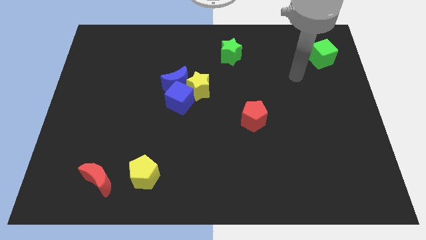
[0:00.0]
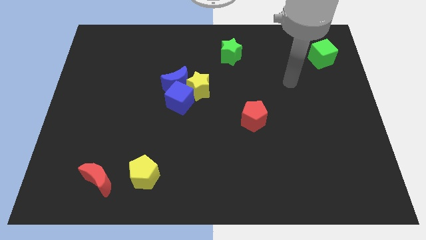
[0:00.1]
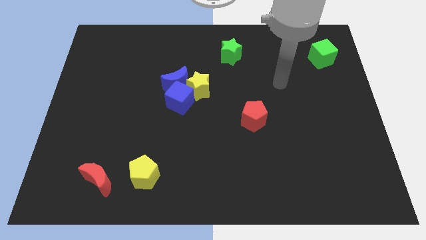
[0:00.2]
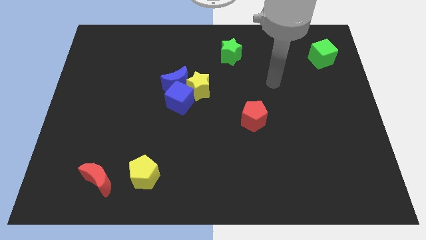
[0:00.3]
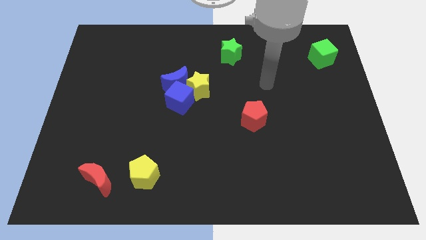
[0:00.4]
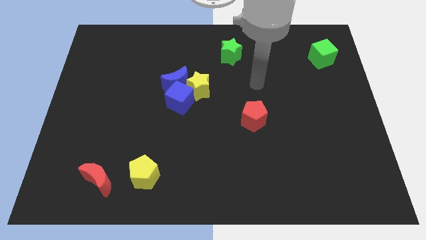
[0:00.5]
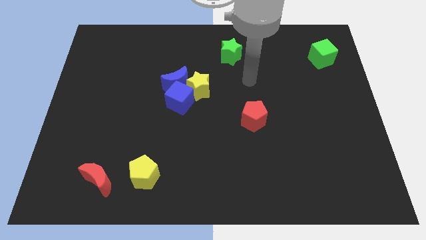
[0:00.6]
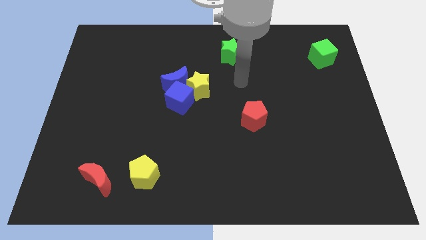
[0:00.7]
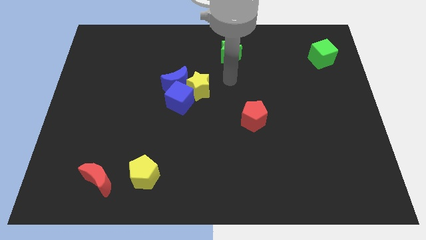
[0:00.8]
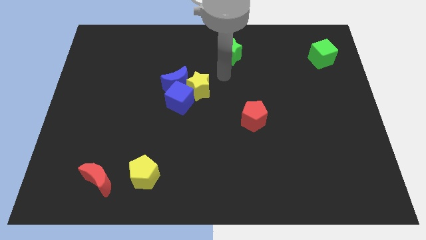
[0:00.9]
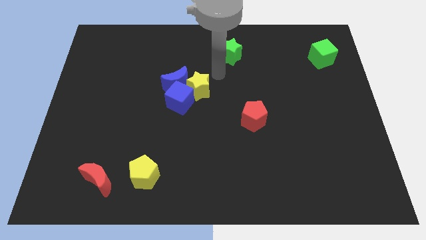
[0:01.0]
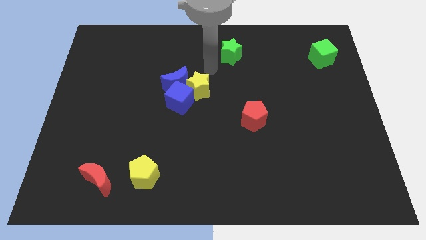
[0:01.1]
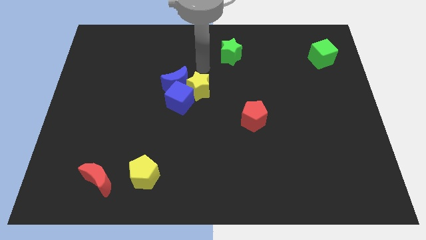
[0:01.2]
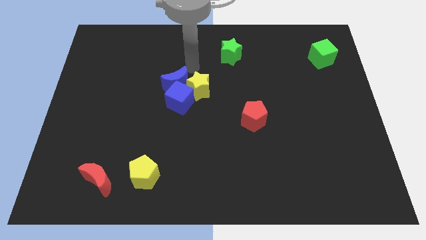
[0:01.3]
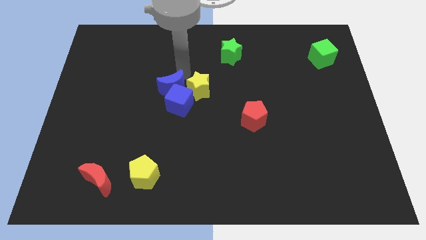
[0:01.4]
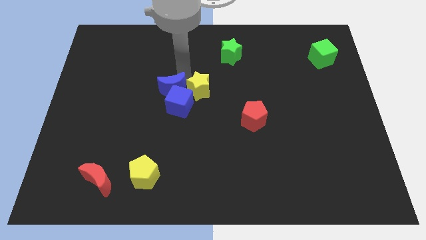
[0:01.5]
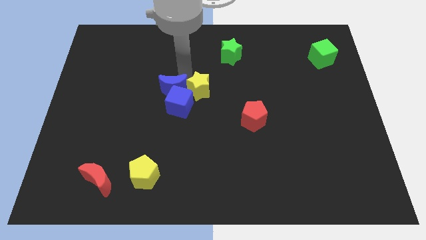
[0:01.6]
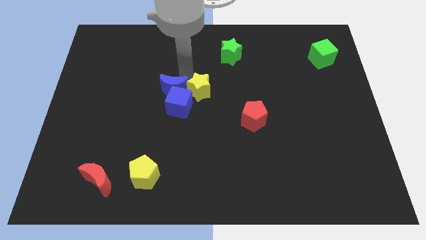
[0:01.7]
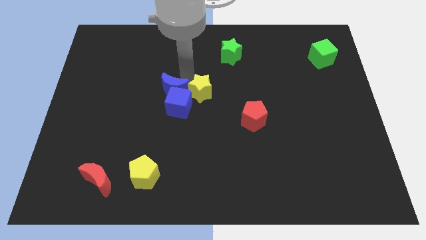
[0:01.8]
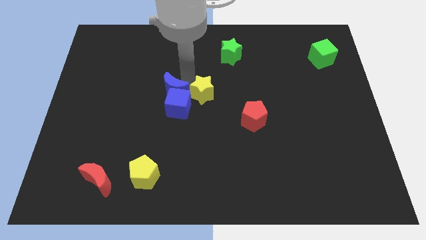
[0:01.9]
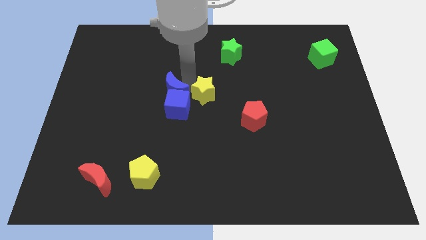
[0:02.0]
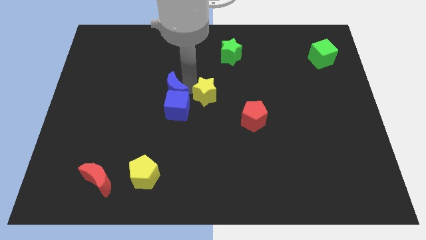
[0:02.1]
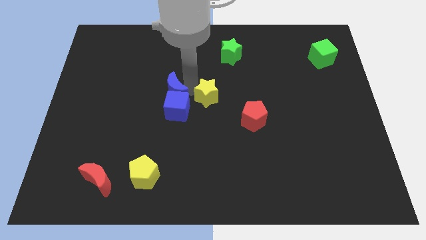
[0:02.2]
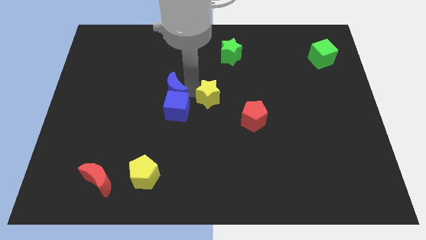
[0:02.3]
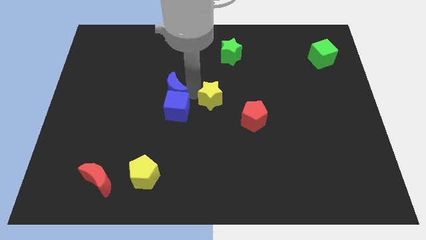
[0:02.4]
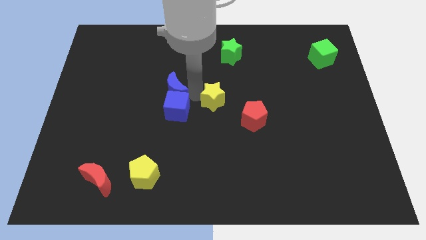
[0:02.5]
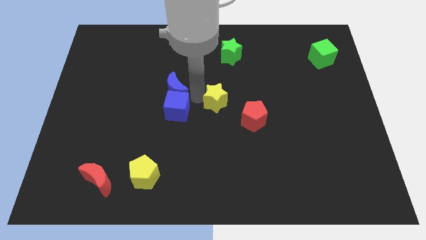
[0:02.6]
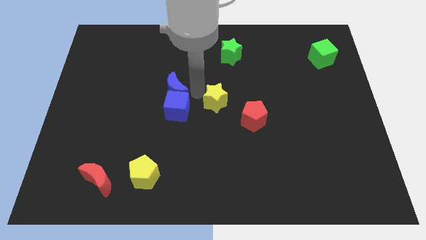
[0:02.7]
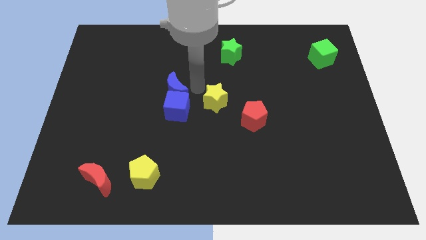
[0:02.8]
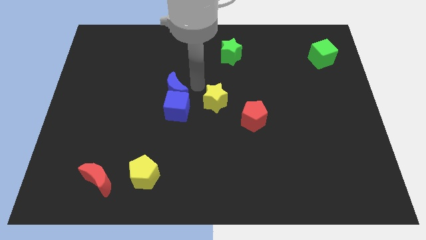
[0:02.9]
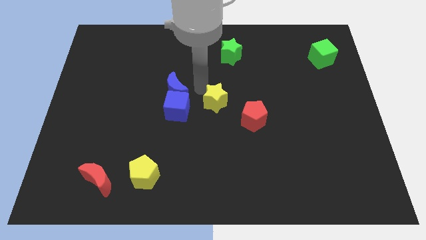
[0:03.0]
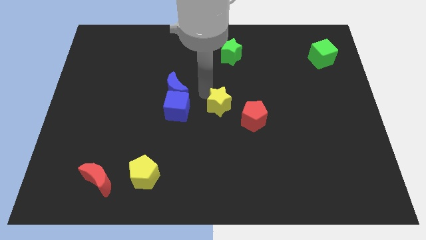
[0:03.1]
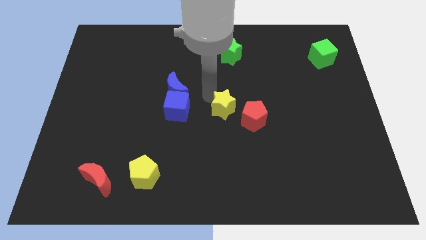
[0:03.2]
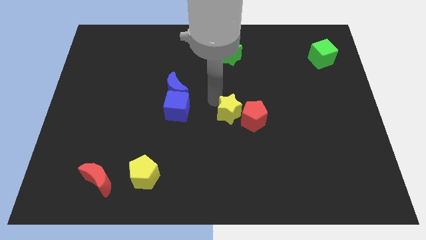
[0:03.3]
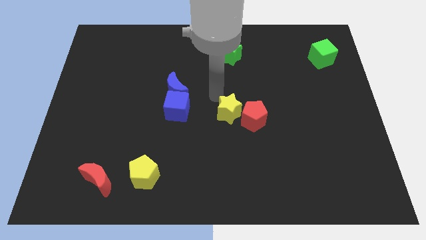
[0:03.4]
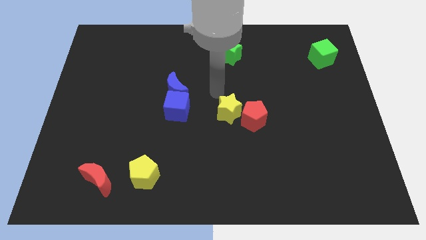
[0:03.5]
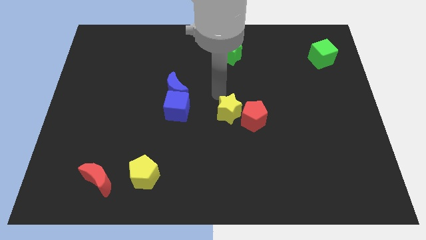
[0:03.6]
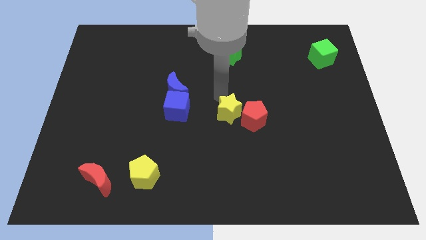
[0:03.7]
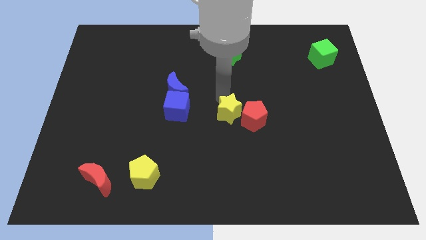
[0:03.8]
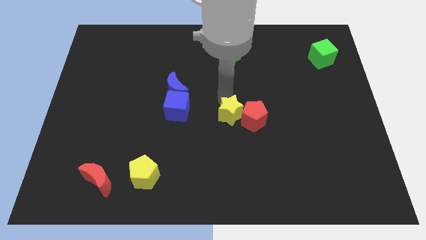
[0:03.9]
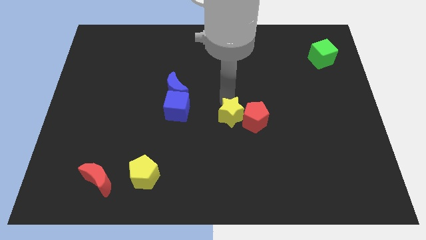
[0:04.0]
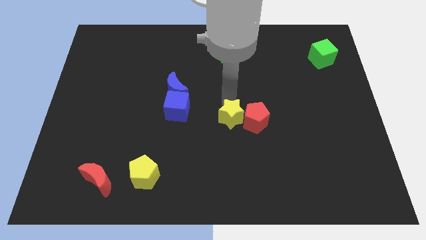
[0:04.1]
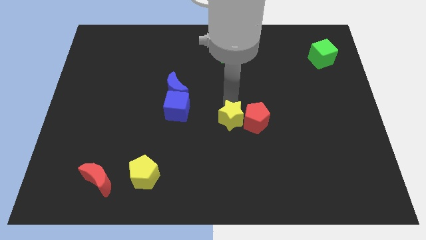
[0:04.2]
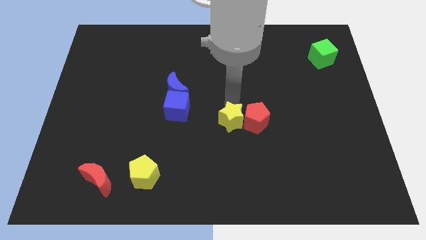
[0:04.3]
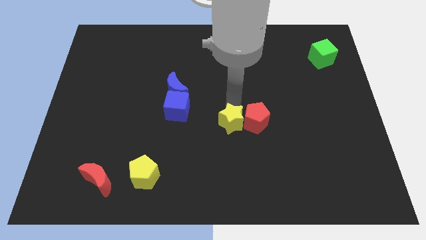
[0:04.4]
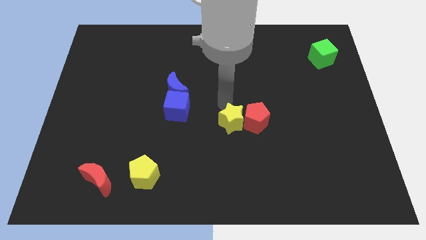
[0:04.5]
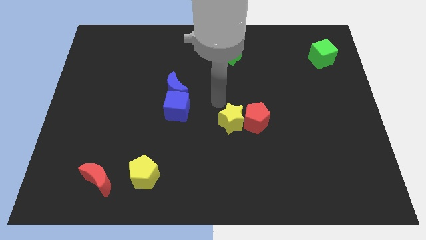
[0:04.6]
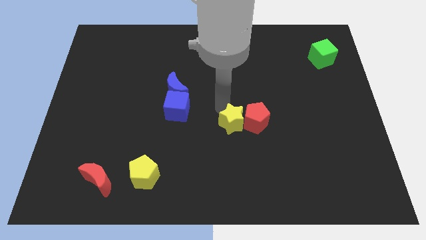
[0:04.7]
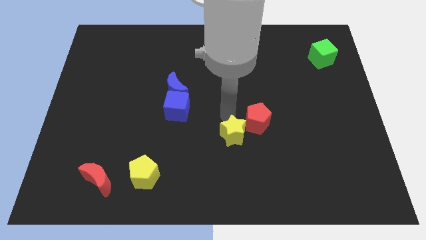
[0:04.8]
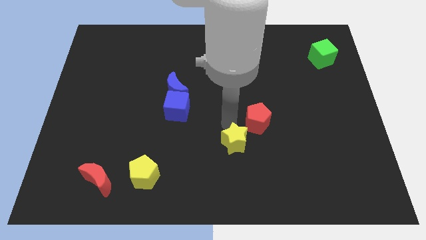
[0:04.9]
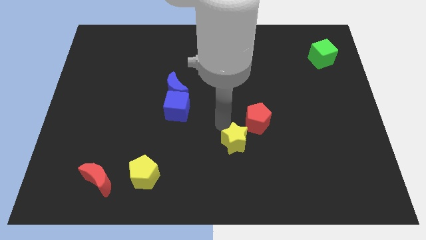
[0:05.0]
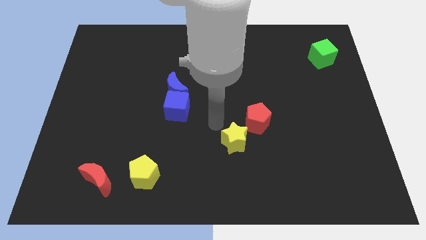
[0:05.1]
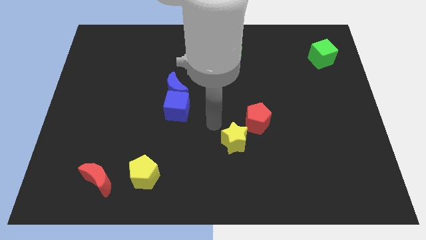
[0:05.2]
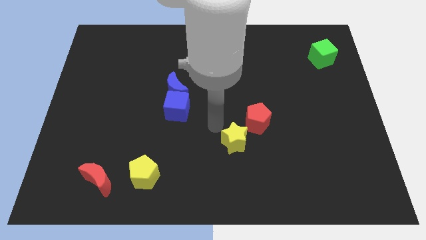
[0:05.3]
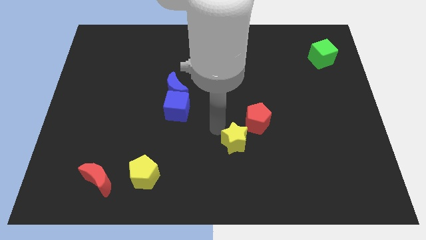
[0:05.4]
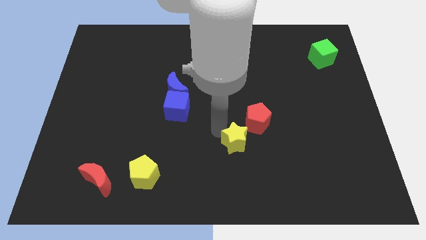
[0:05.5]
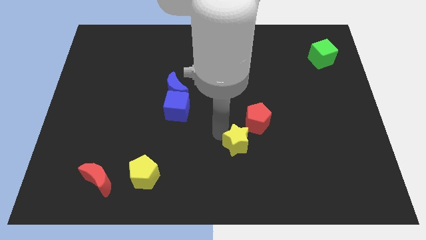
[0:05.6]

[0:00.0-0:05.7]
push the yellow star below the red pentagon

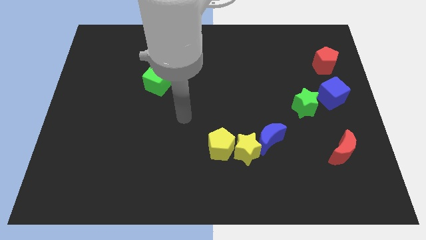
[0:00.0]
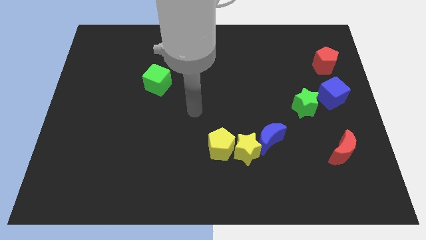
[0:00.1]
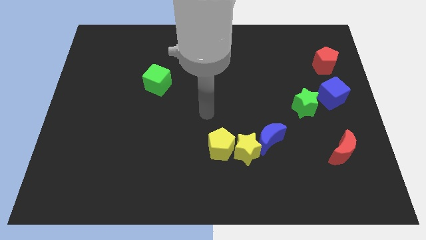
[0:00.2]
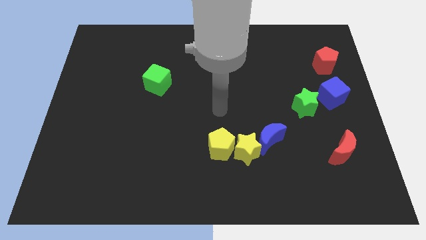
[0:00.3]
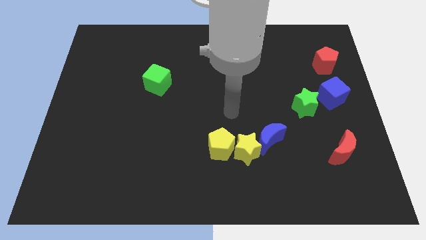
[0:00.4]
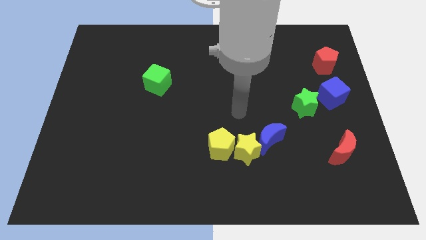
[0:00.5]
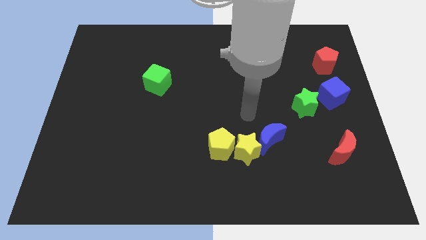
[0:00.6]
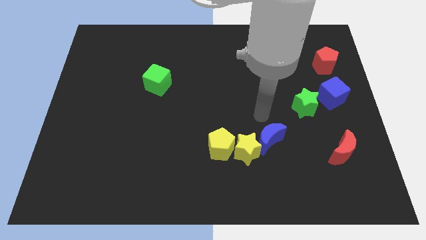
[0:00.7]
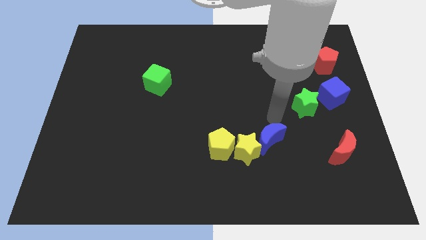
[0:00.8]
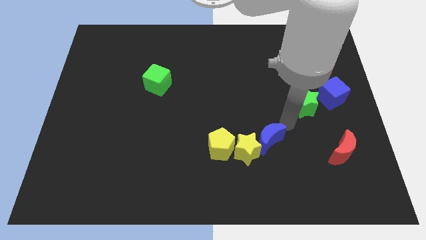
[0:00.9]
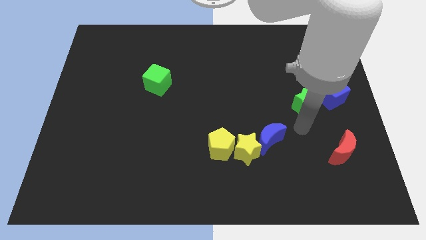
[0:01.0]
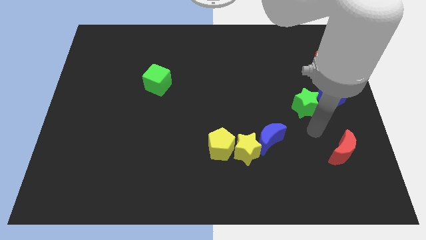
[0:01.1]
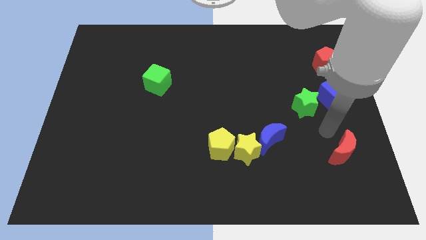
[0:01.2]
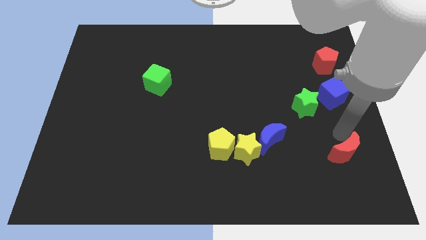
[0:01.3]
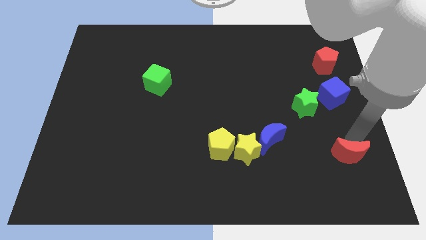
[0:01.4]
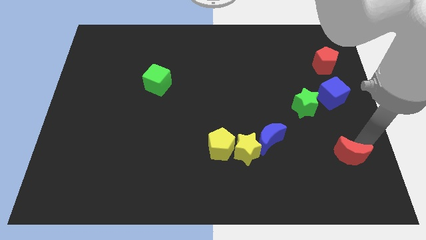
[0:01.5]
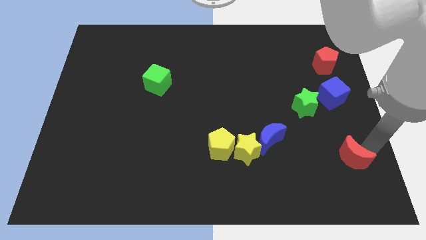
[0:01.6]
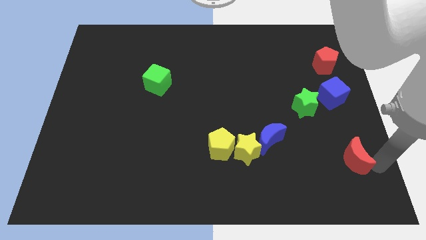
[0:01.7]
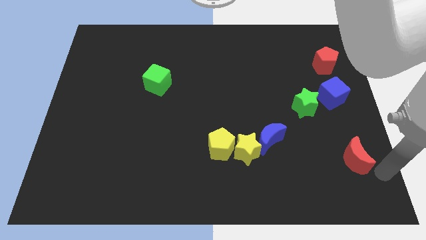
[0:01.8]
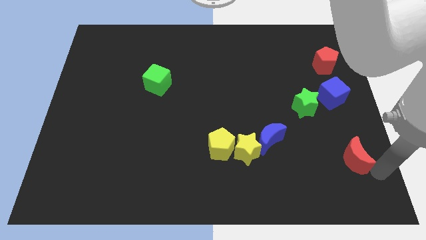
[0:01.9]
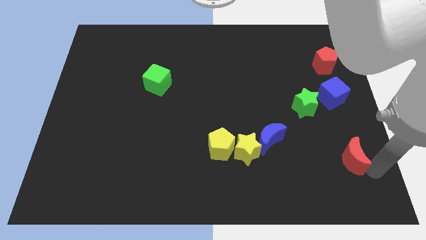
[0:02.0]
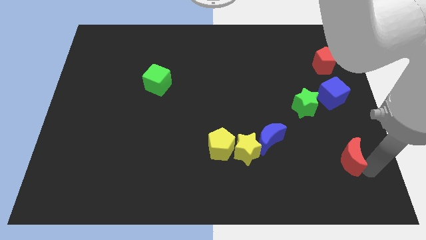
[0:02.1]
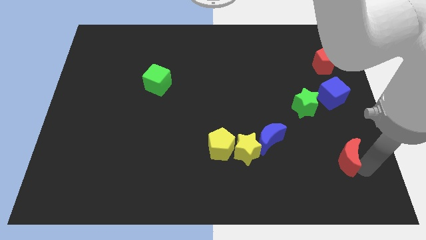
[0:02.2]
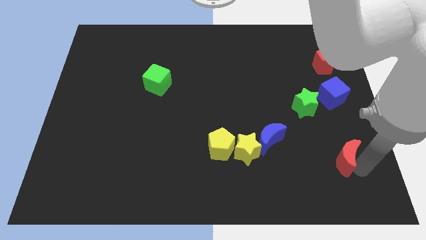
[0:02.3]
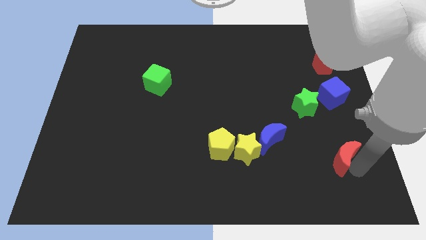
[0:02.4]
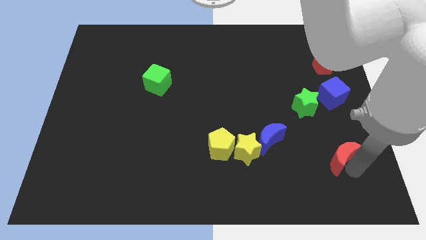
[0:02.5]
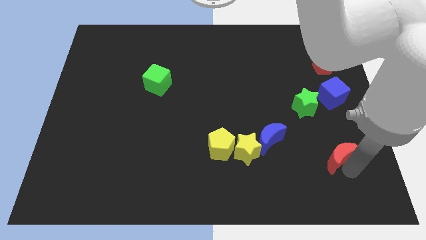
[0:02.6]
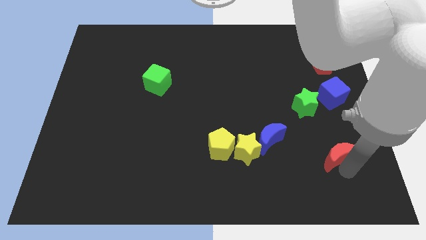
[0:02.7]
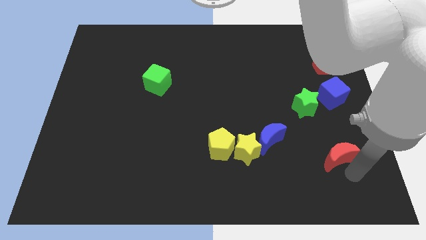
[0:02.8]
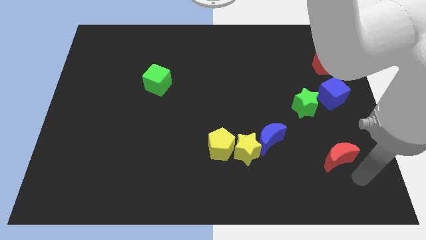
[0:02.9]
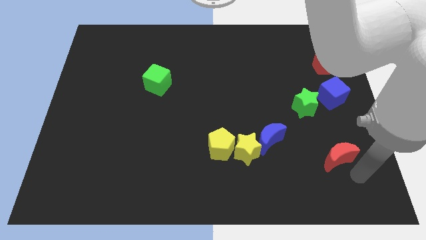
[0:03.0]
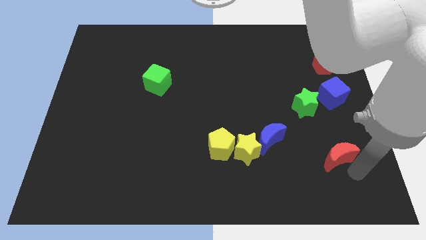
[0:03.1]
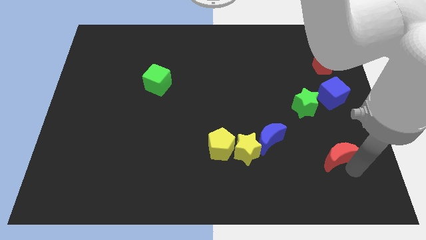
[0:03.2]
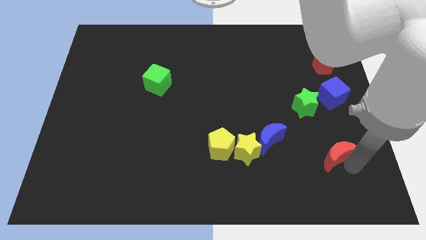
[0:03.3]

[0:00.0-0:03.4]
push the red moon to the right side of the blue moon
